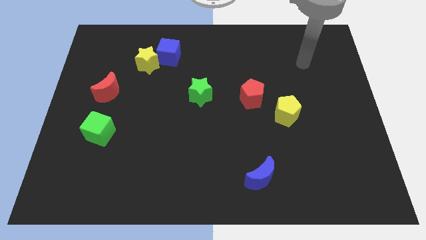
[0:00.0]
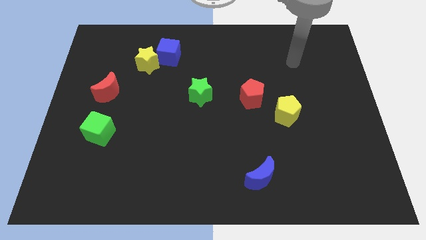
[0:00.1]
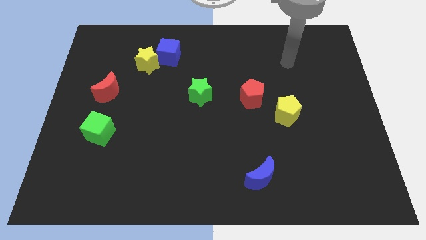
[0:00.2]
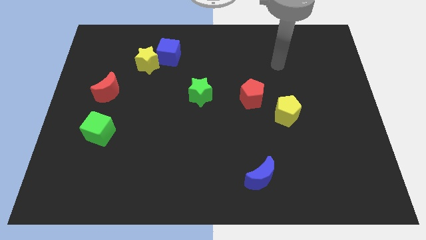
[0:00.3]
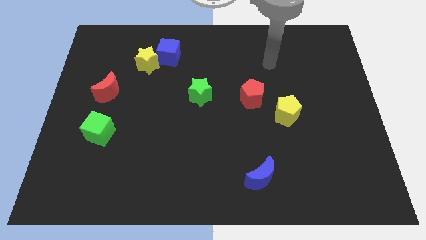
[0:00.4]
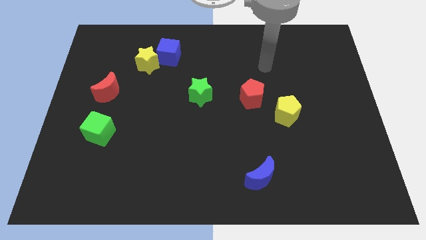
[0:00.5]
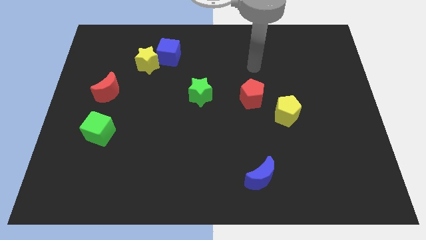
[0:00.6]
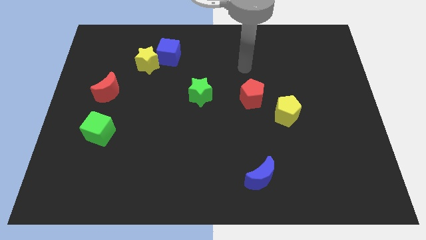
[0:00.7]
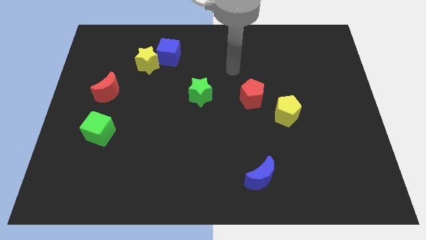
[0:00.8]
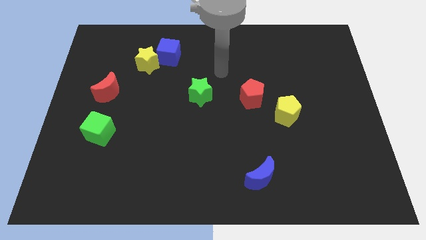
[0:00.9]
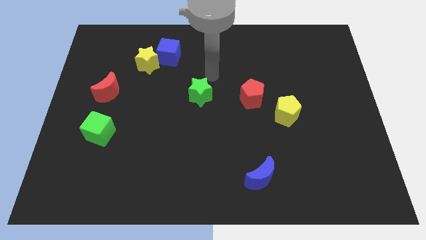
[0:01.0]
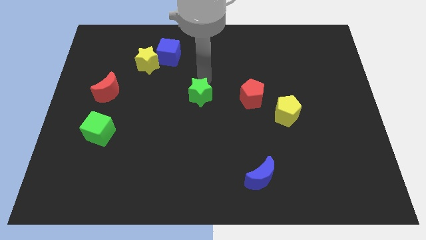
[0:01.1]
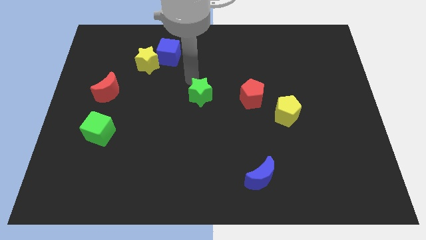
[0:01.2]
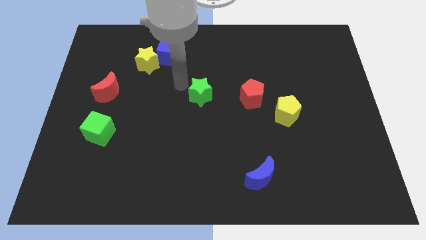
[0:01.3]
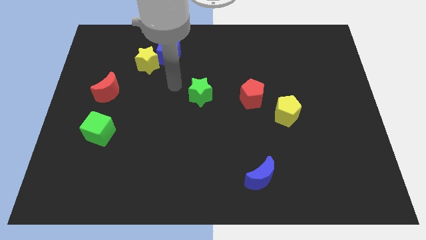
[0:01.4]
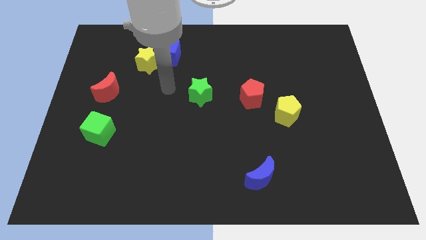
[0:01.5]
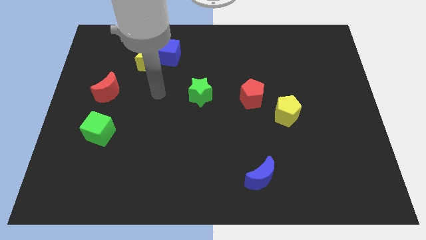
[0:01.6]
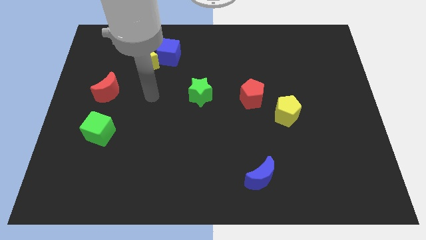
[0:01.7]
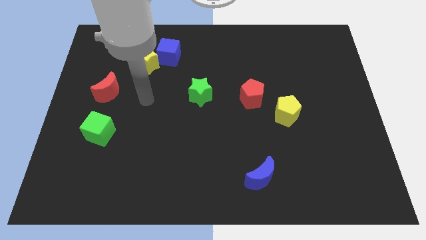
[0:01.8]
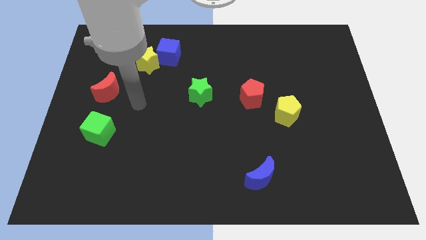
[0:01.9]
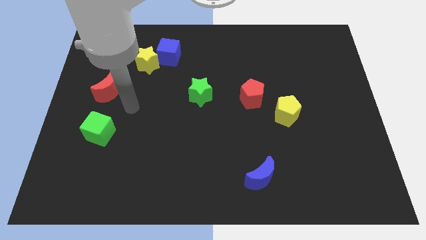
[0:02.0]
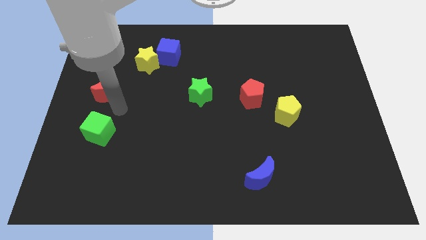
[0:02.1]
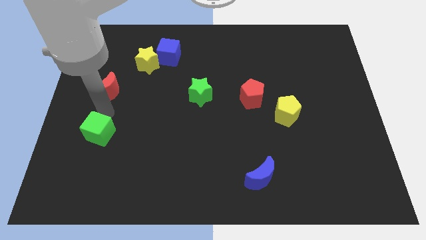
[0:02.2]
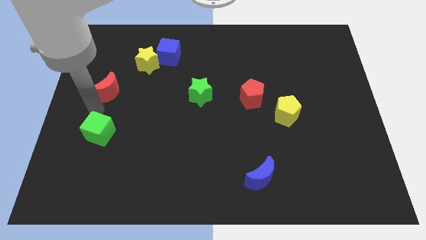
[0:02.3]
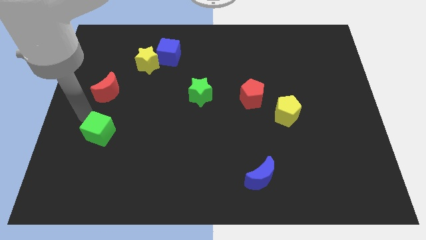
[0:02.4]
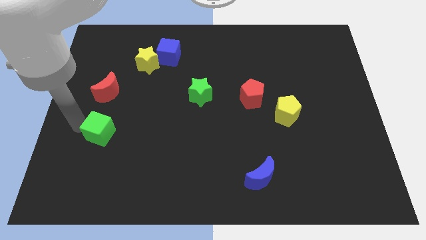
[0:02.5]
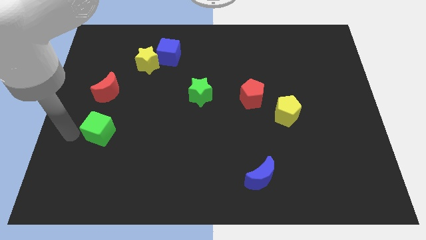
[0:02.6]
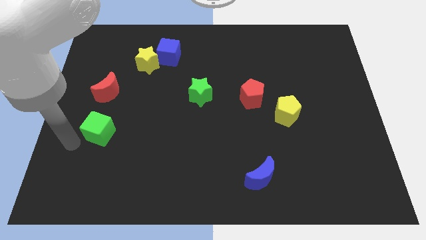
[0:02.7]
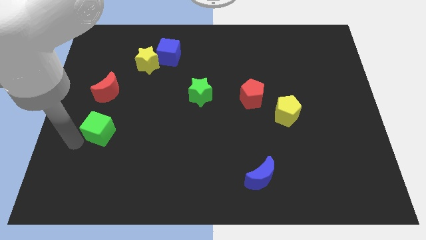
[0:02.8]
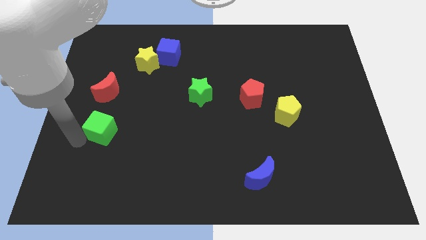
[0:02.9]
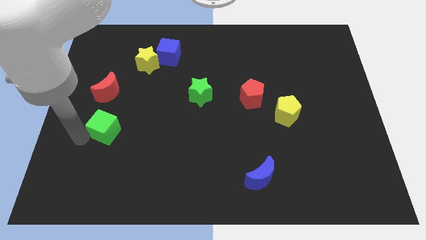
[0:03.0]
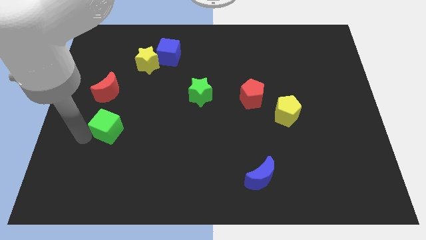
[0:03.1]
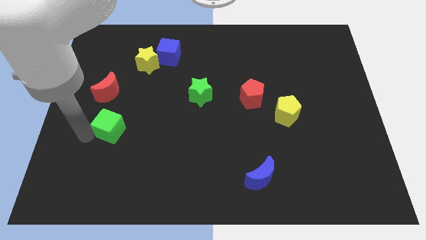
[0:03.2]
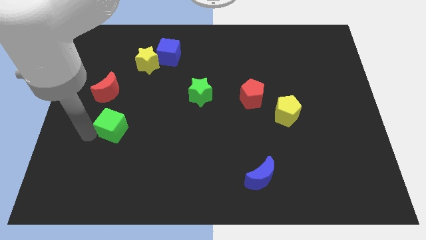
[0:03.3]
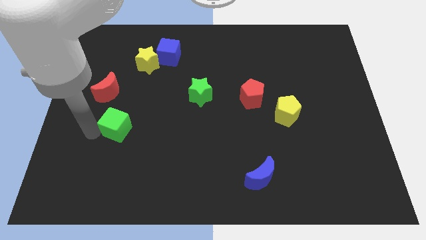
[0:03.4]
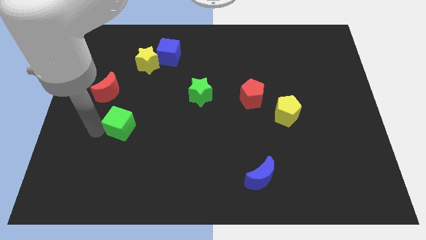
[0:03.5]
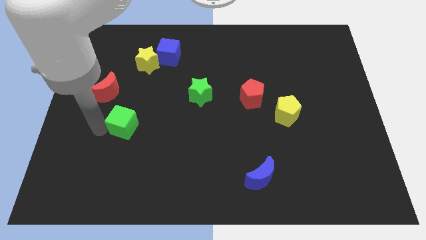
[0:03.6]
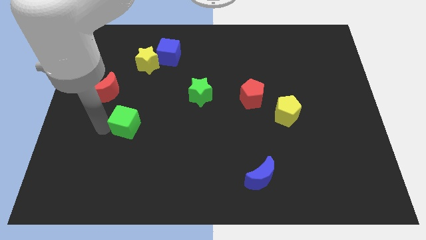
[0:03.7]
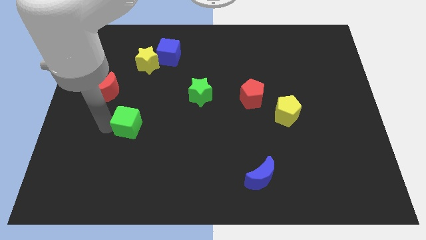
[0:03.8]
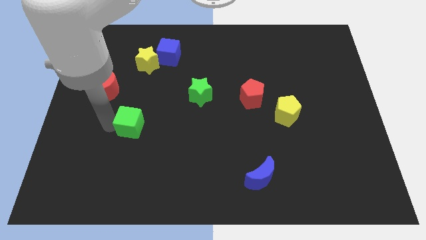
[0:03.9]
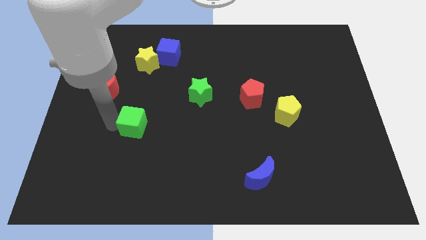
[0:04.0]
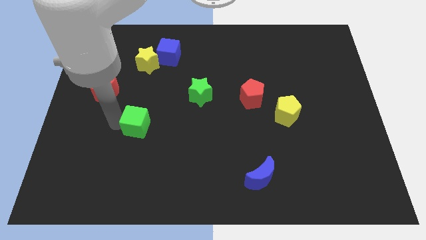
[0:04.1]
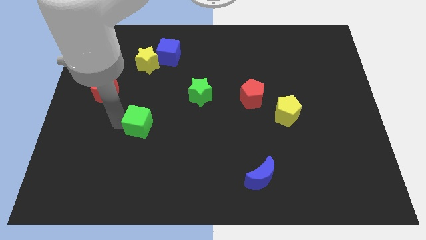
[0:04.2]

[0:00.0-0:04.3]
slightly slide the green cube up and then to the right

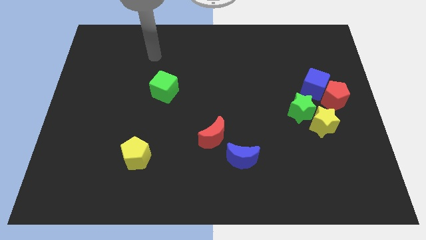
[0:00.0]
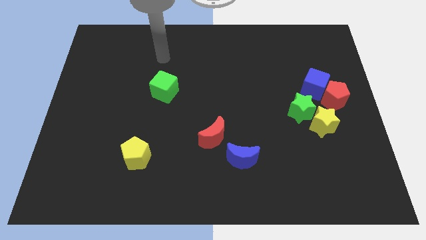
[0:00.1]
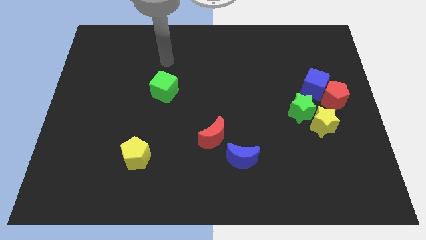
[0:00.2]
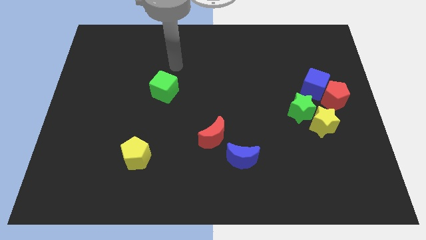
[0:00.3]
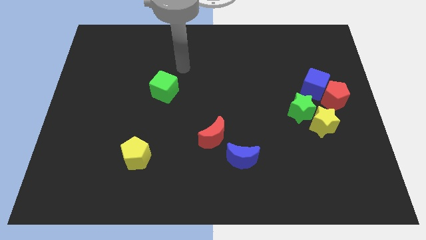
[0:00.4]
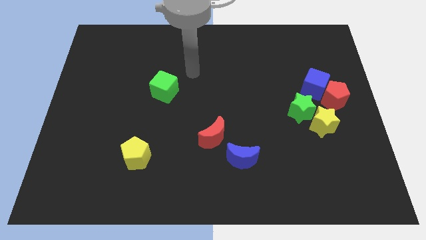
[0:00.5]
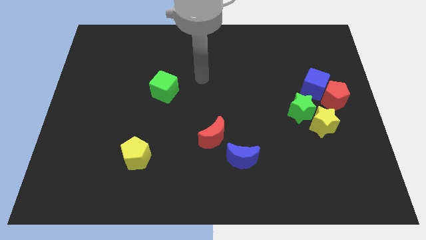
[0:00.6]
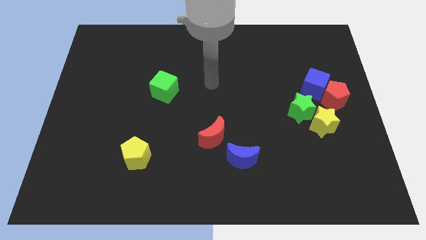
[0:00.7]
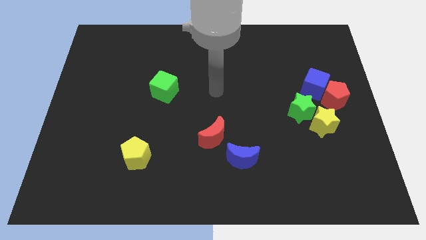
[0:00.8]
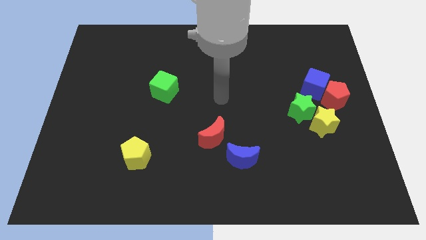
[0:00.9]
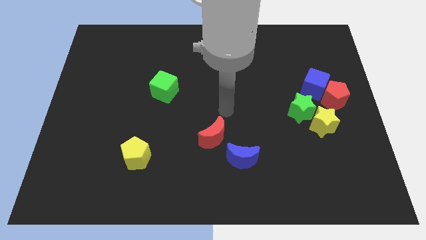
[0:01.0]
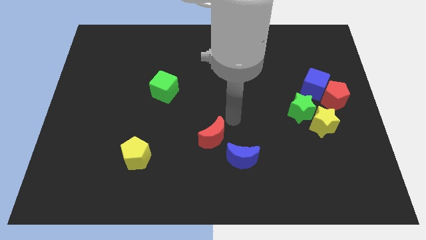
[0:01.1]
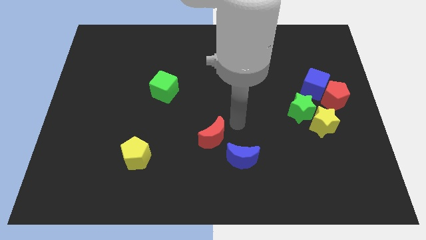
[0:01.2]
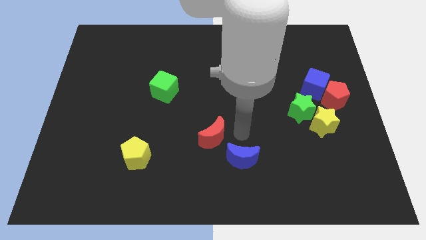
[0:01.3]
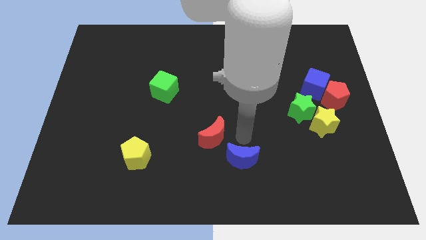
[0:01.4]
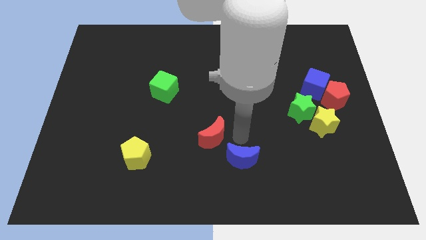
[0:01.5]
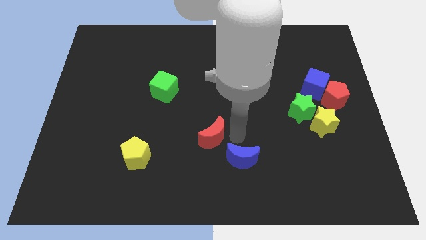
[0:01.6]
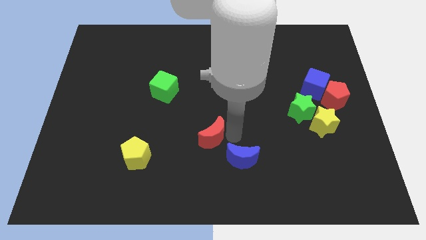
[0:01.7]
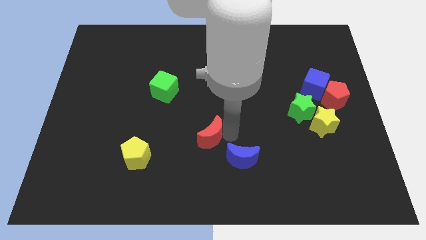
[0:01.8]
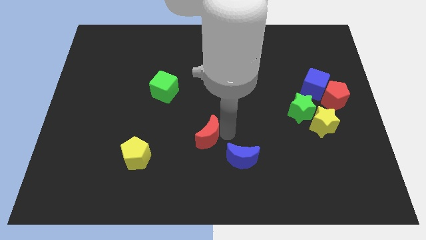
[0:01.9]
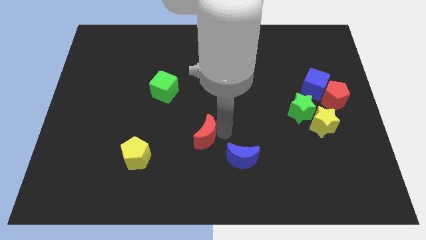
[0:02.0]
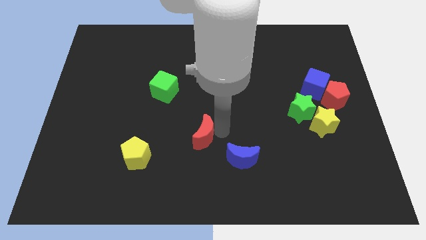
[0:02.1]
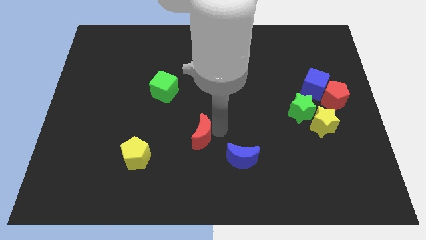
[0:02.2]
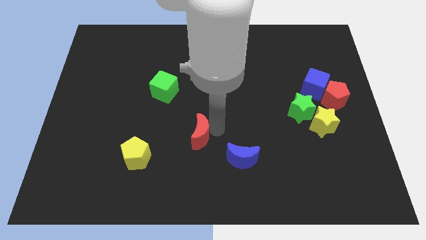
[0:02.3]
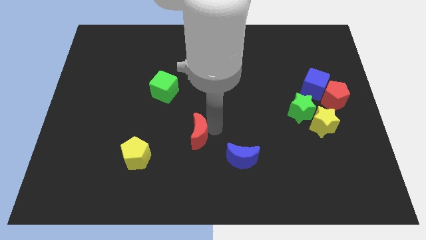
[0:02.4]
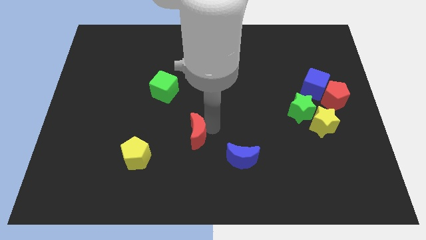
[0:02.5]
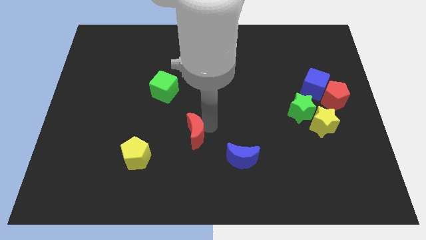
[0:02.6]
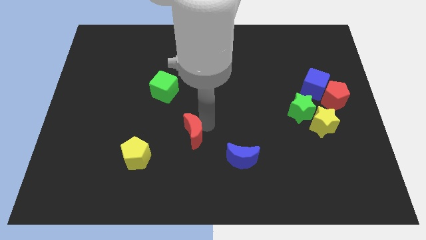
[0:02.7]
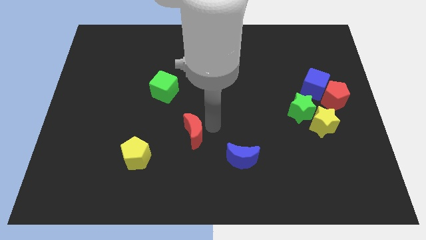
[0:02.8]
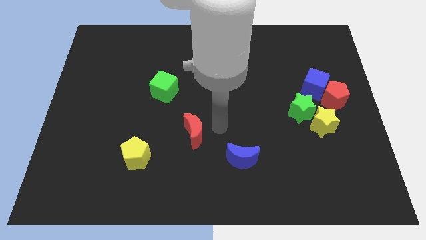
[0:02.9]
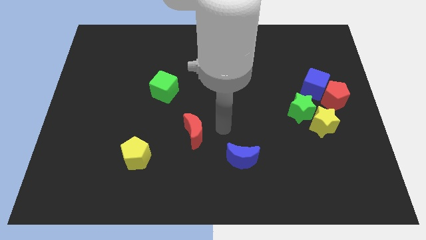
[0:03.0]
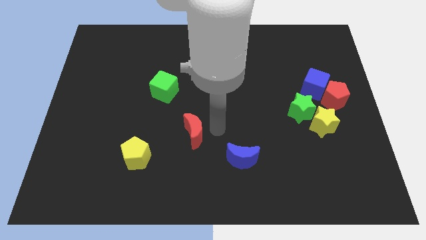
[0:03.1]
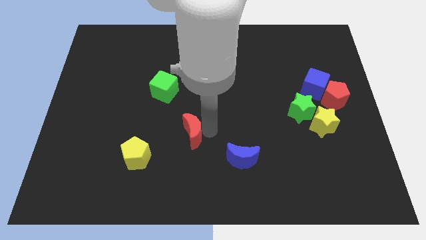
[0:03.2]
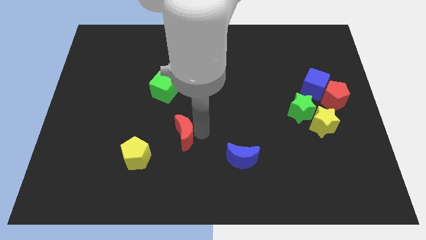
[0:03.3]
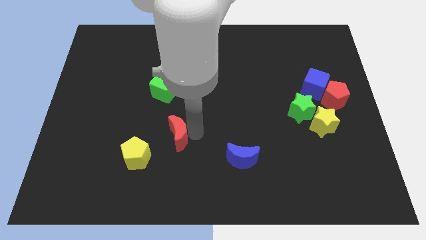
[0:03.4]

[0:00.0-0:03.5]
slightly push the red moon left

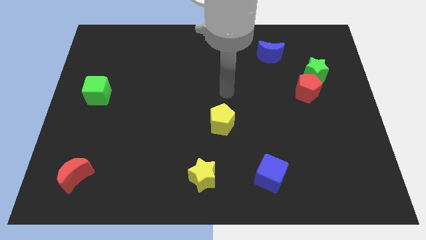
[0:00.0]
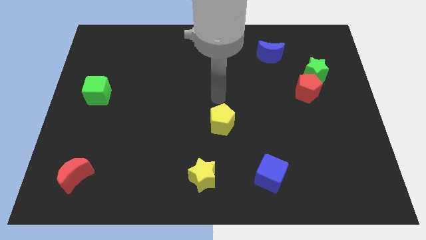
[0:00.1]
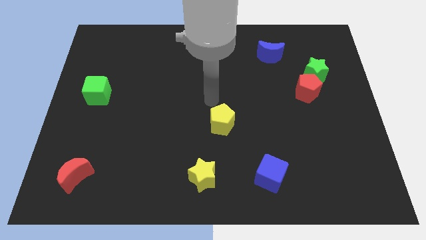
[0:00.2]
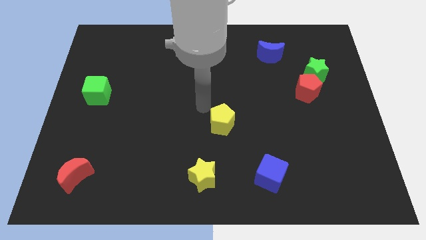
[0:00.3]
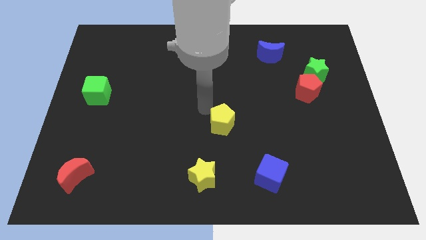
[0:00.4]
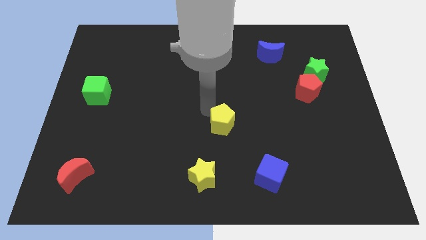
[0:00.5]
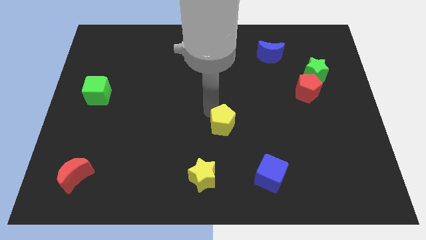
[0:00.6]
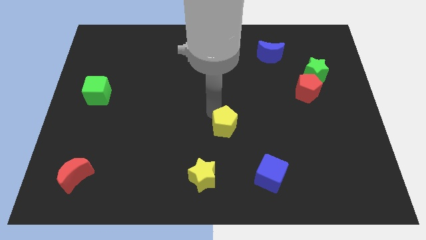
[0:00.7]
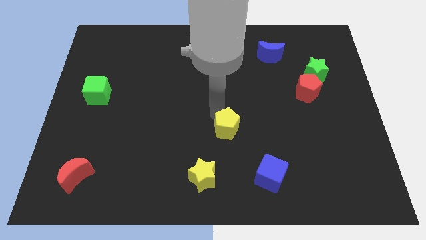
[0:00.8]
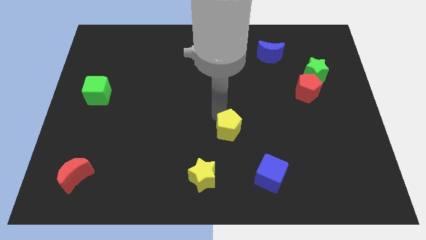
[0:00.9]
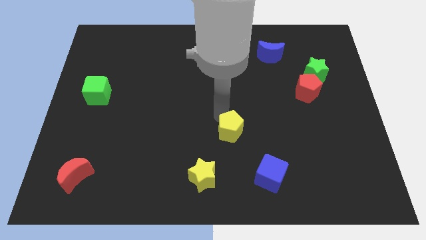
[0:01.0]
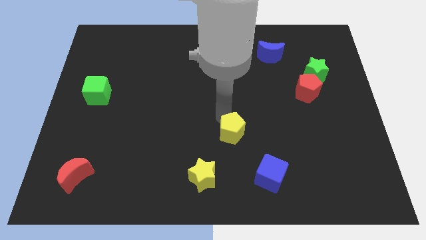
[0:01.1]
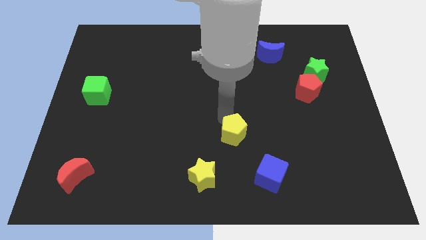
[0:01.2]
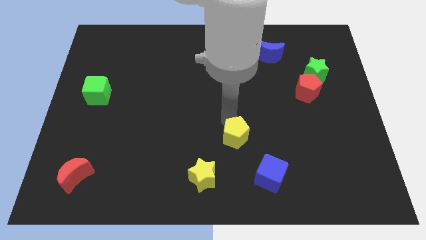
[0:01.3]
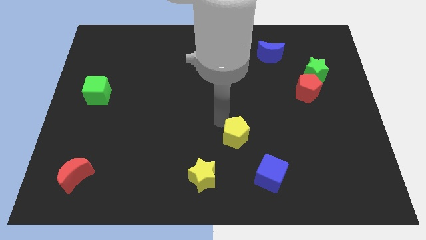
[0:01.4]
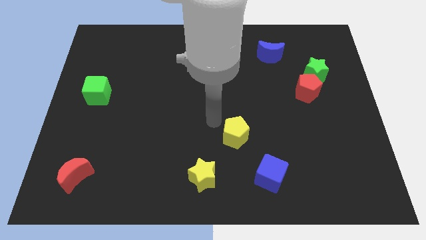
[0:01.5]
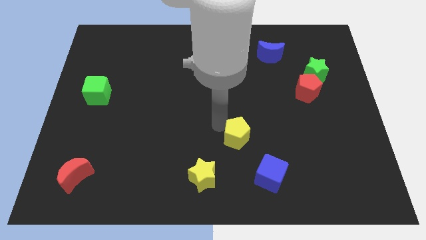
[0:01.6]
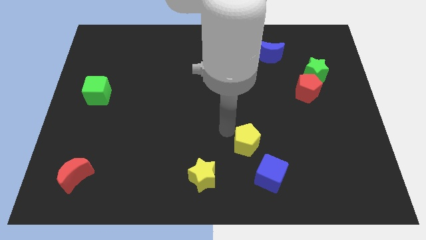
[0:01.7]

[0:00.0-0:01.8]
slightly slide the yellow pentagon downwards and right
